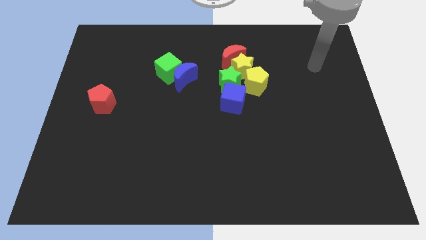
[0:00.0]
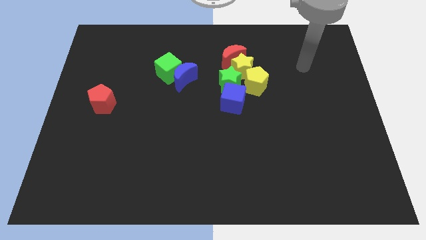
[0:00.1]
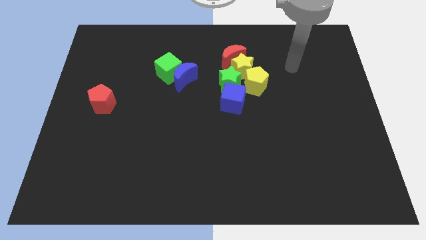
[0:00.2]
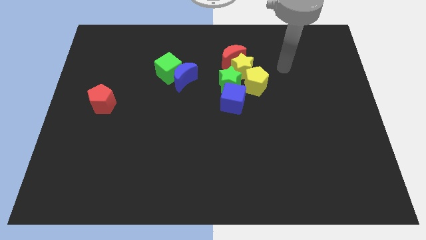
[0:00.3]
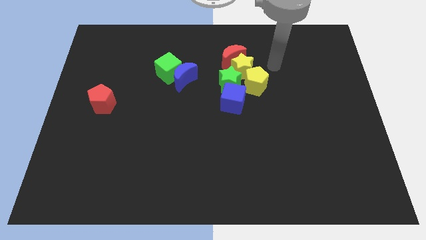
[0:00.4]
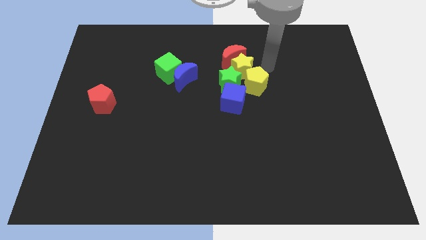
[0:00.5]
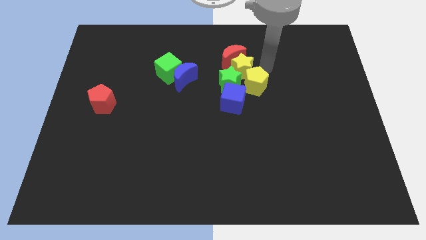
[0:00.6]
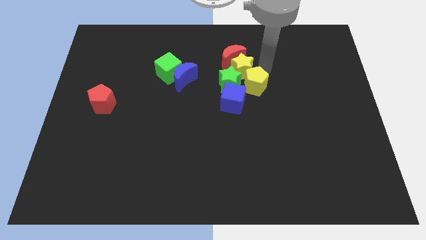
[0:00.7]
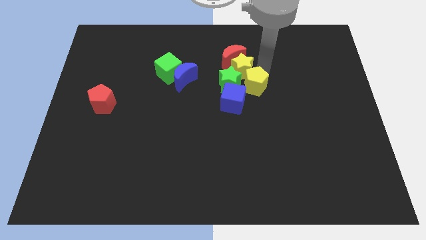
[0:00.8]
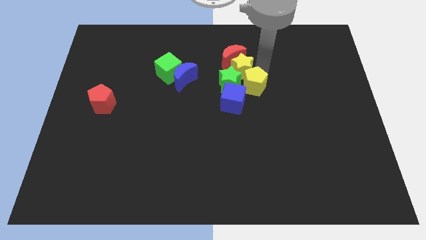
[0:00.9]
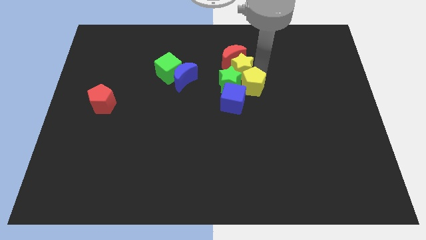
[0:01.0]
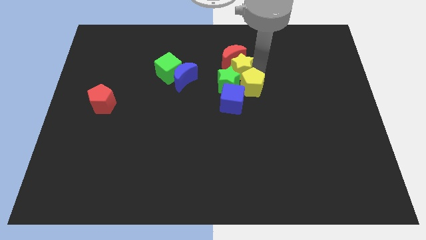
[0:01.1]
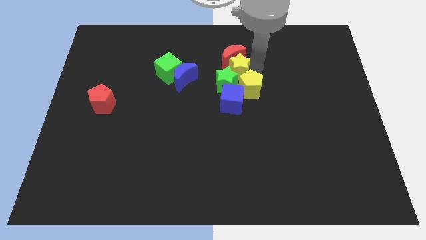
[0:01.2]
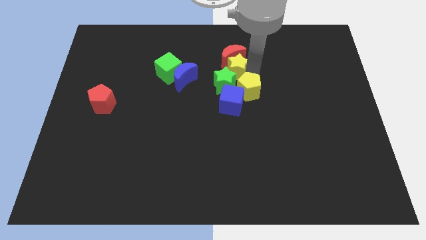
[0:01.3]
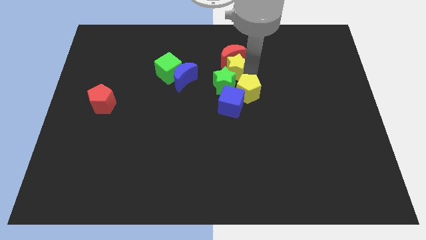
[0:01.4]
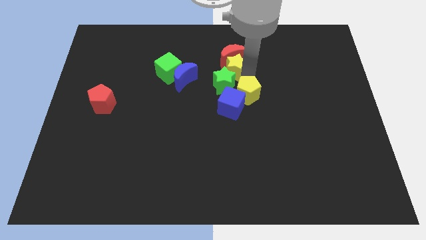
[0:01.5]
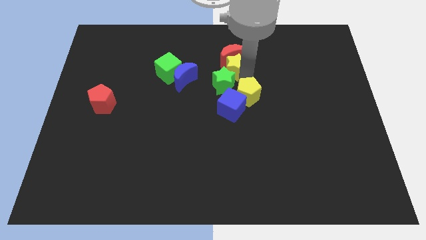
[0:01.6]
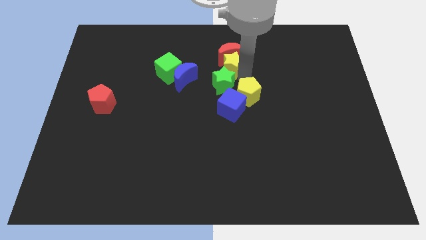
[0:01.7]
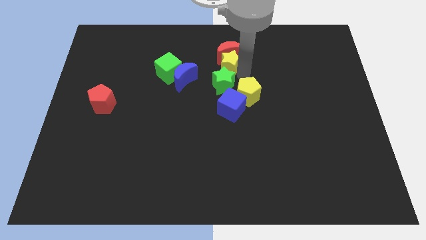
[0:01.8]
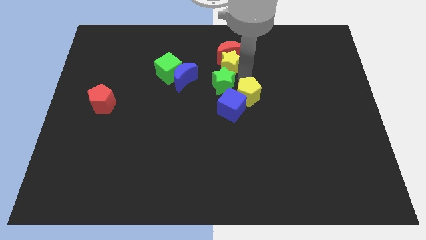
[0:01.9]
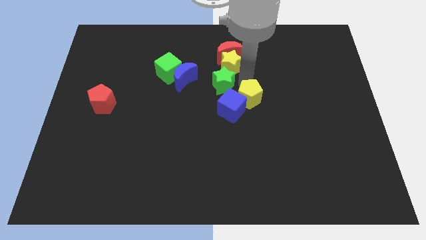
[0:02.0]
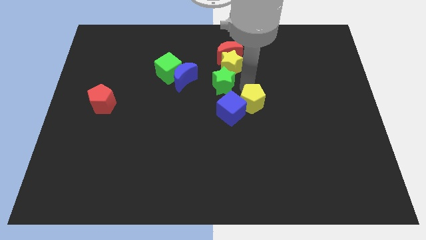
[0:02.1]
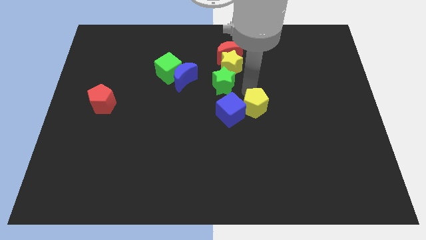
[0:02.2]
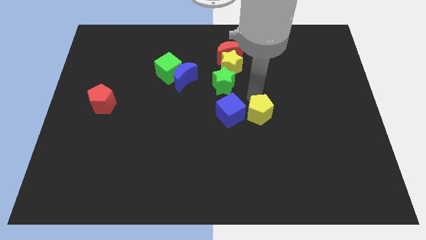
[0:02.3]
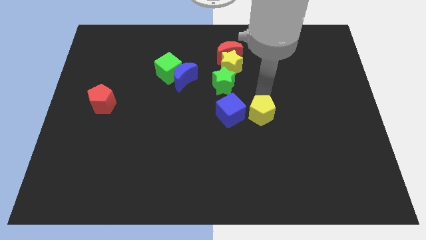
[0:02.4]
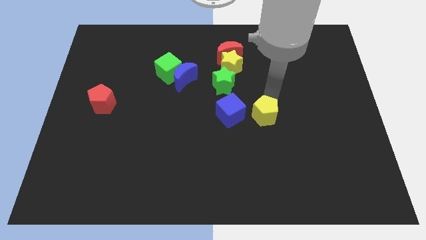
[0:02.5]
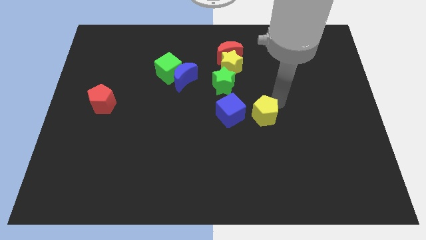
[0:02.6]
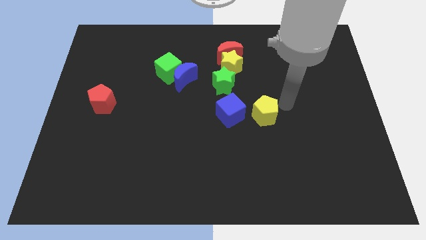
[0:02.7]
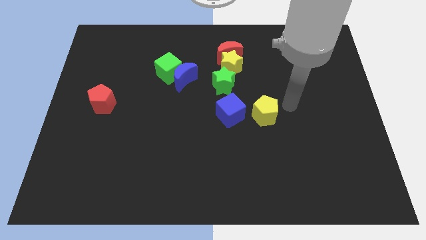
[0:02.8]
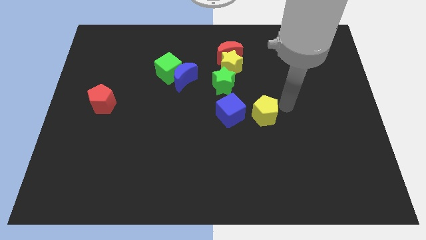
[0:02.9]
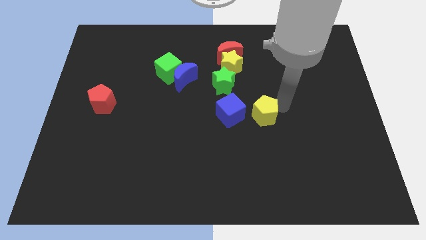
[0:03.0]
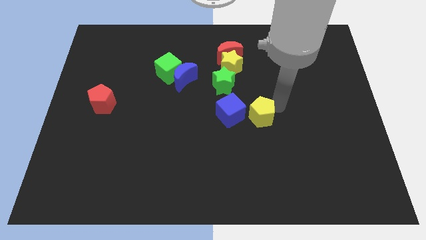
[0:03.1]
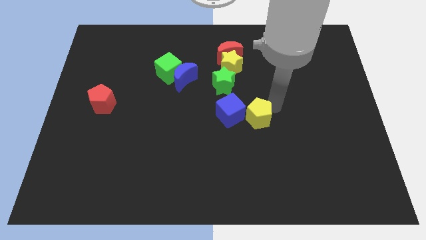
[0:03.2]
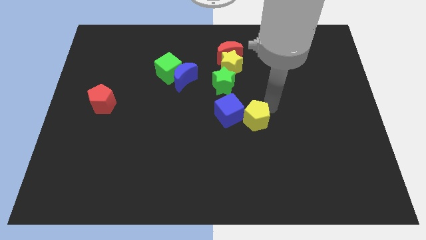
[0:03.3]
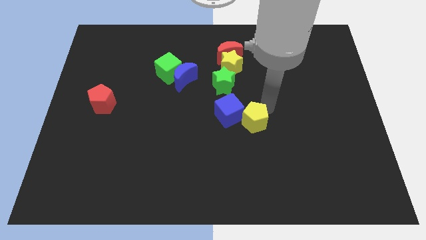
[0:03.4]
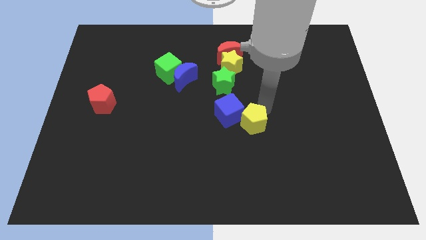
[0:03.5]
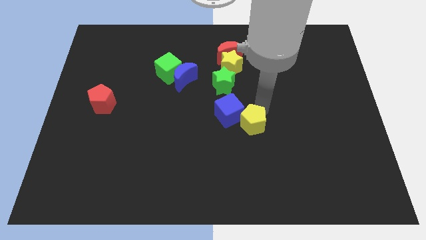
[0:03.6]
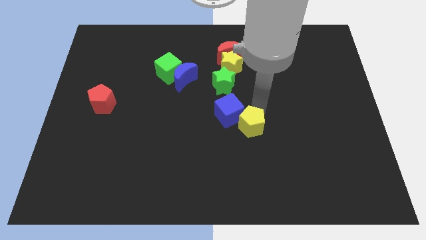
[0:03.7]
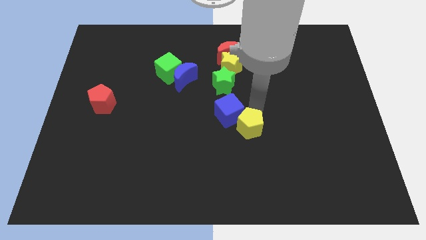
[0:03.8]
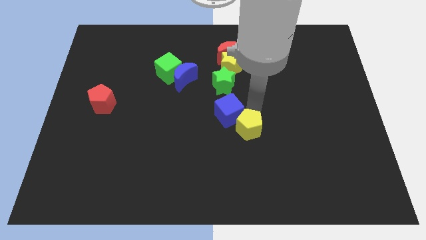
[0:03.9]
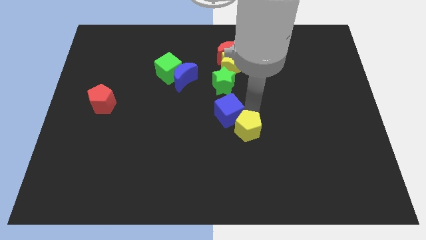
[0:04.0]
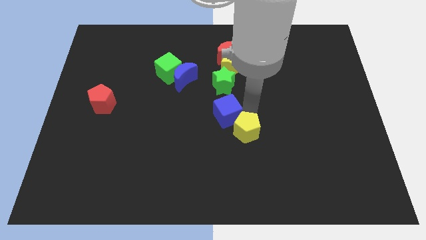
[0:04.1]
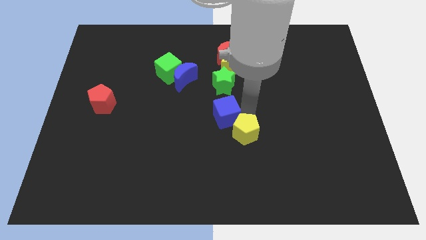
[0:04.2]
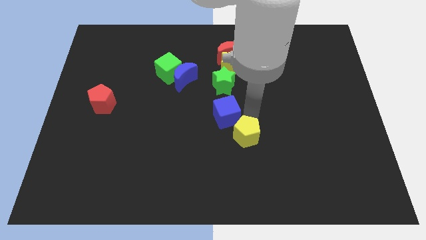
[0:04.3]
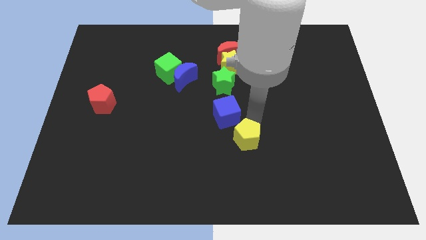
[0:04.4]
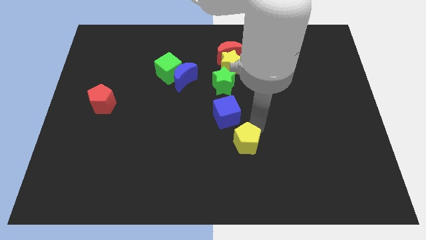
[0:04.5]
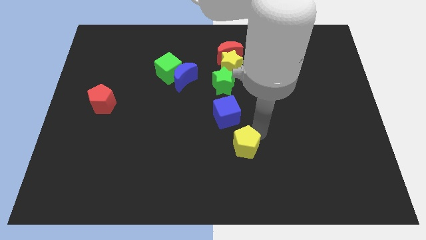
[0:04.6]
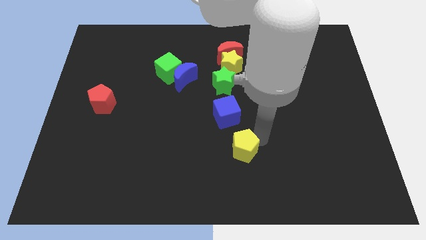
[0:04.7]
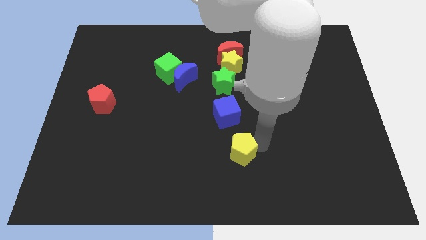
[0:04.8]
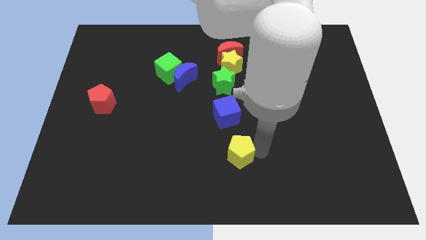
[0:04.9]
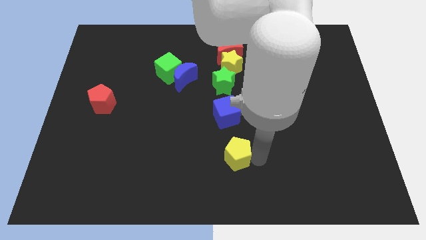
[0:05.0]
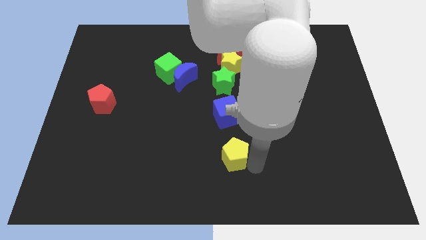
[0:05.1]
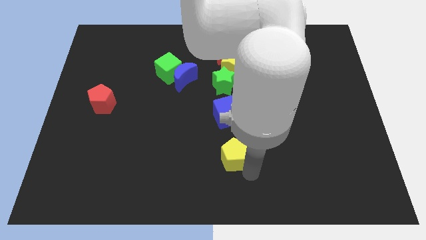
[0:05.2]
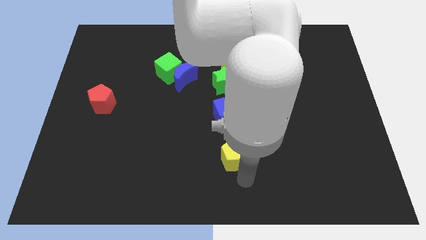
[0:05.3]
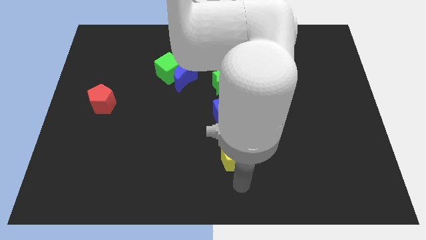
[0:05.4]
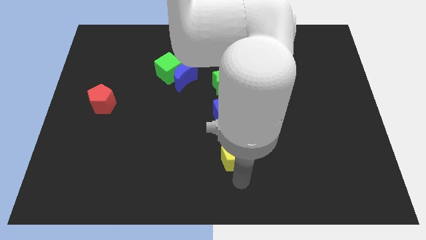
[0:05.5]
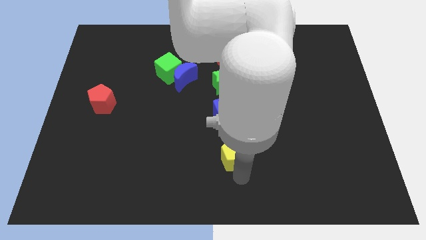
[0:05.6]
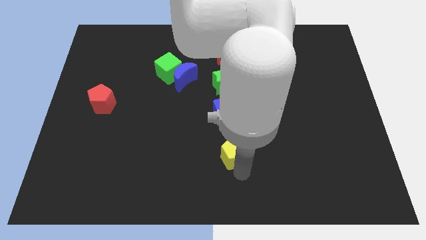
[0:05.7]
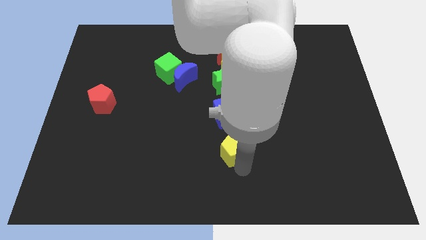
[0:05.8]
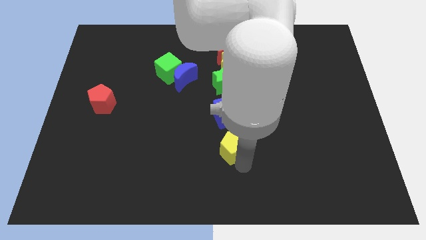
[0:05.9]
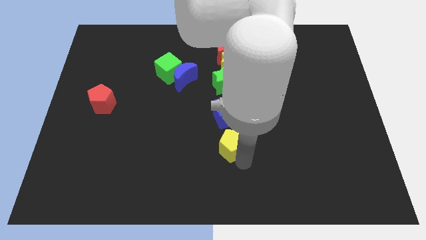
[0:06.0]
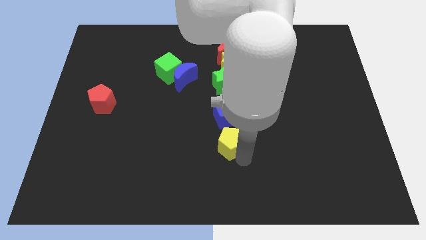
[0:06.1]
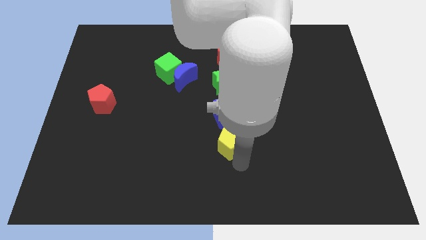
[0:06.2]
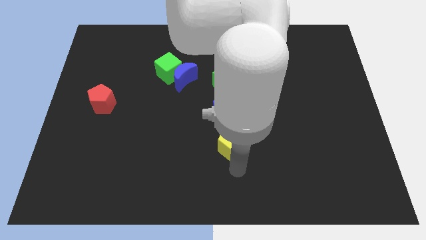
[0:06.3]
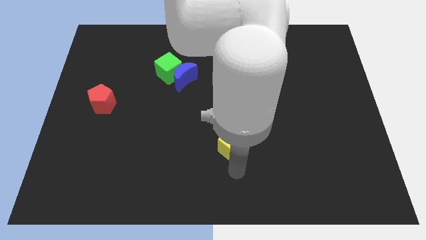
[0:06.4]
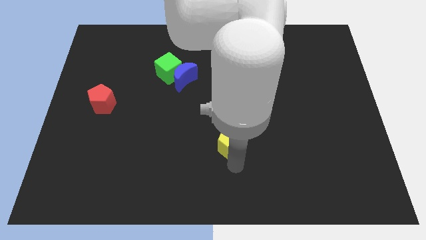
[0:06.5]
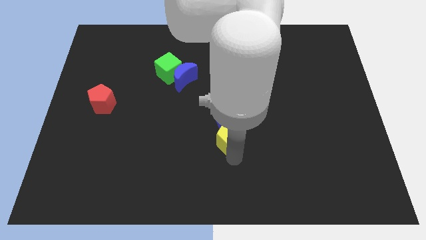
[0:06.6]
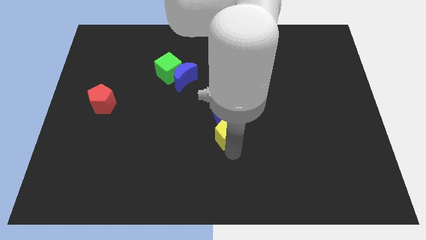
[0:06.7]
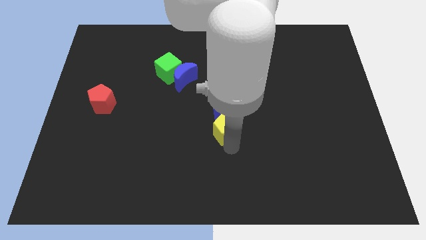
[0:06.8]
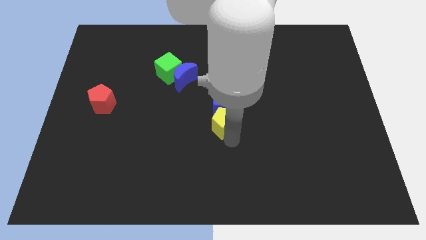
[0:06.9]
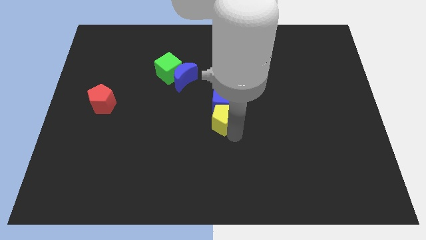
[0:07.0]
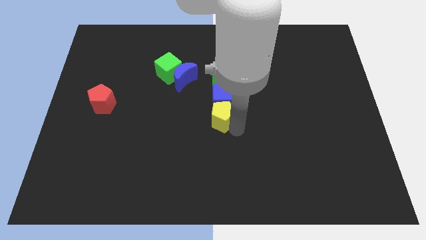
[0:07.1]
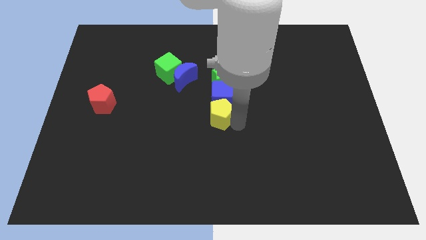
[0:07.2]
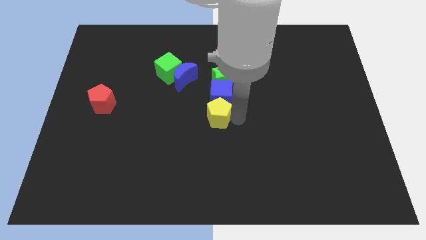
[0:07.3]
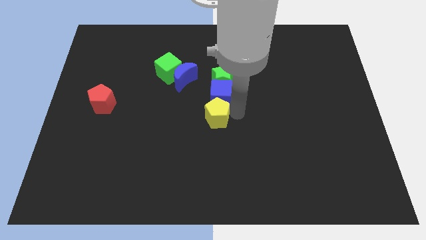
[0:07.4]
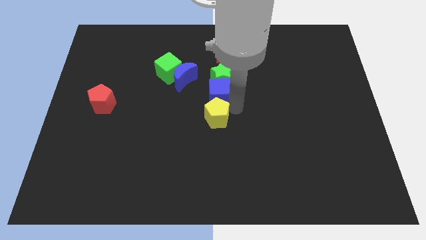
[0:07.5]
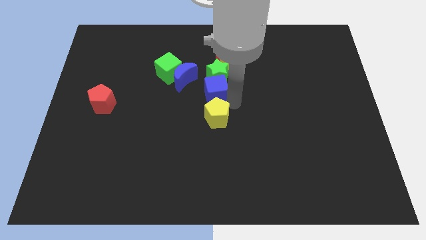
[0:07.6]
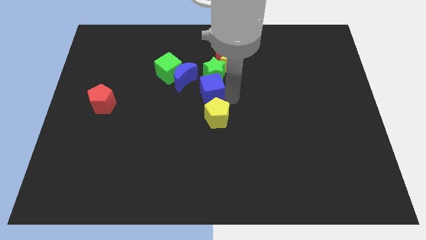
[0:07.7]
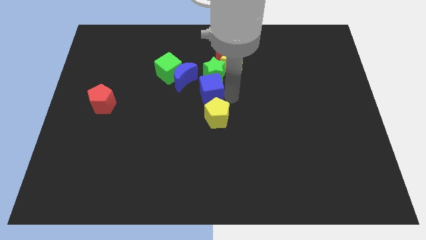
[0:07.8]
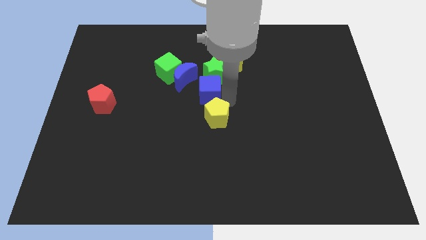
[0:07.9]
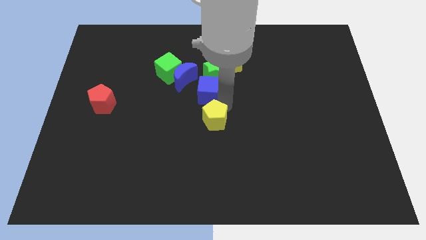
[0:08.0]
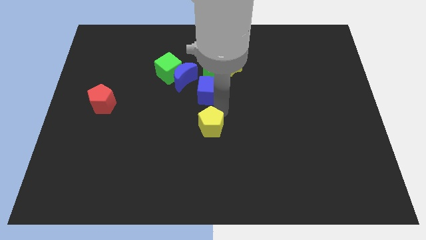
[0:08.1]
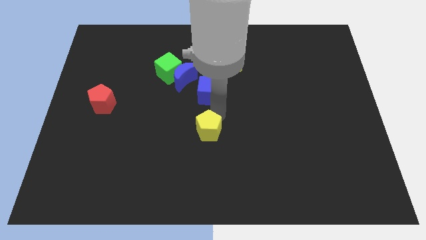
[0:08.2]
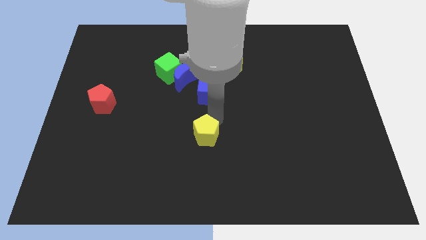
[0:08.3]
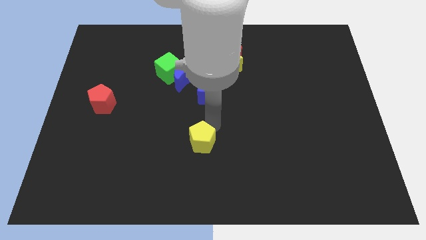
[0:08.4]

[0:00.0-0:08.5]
push the yellow pentagon downwards and to the left

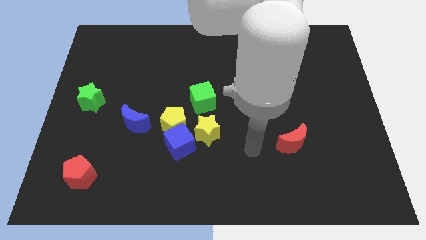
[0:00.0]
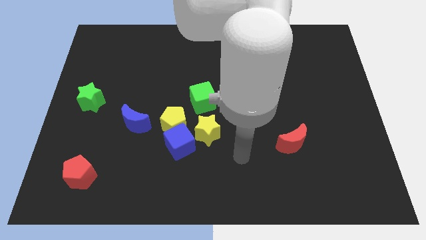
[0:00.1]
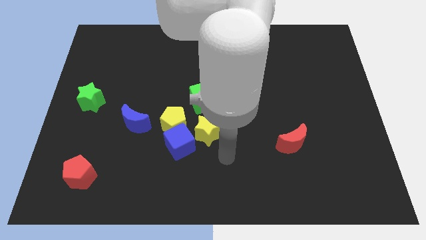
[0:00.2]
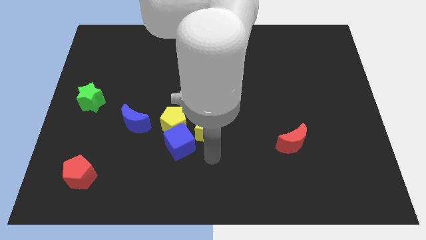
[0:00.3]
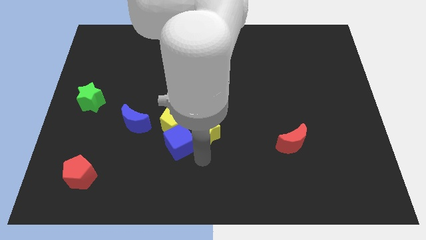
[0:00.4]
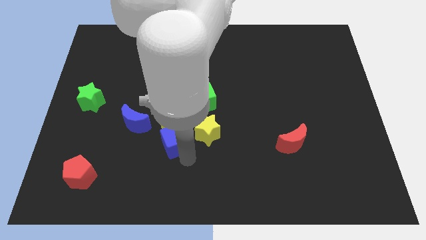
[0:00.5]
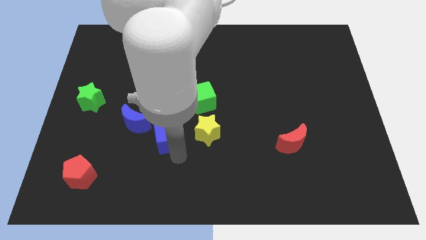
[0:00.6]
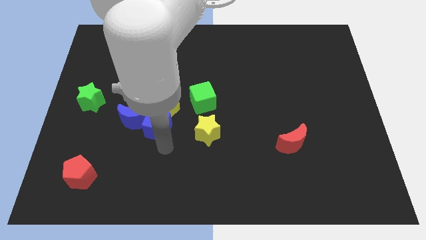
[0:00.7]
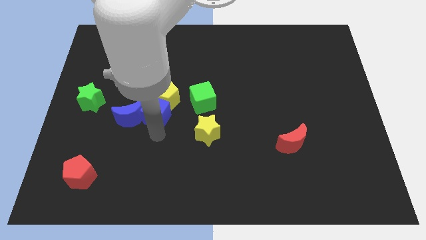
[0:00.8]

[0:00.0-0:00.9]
slide the yellow pentagon a little up
